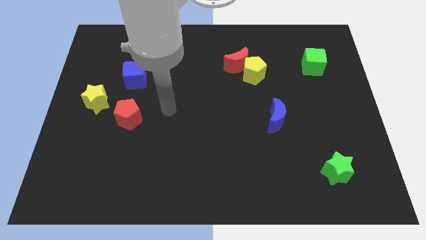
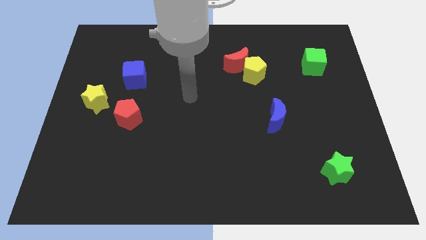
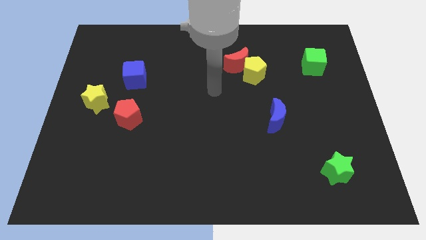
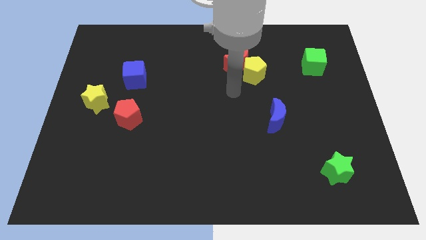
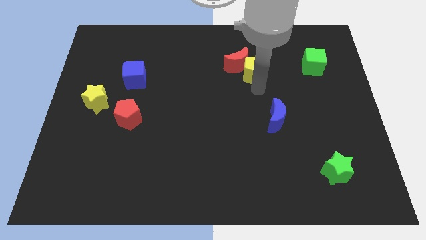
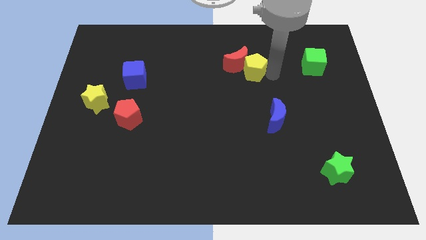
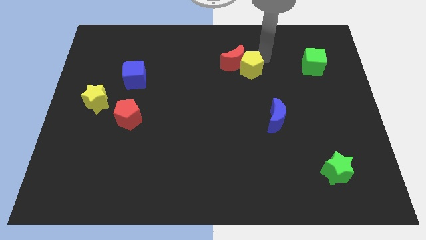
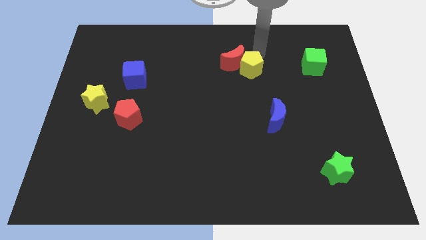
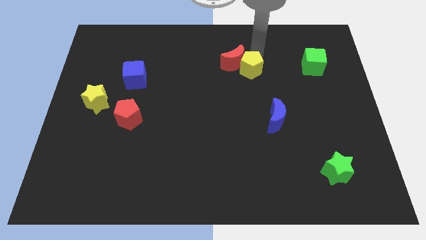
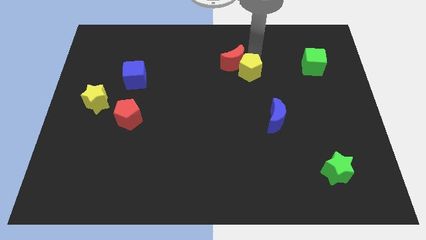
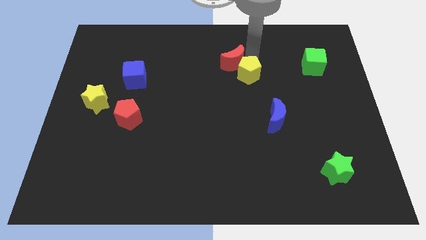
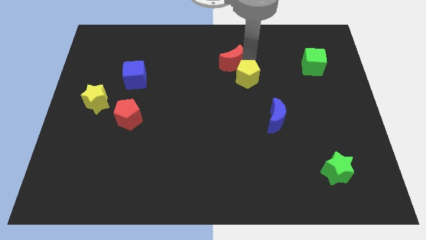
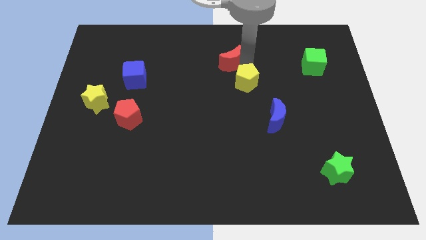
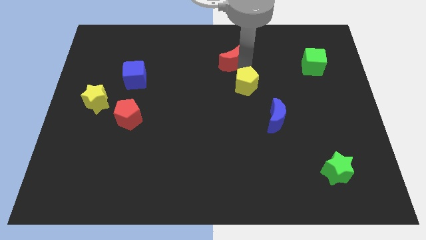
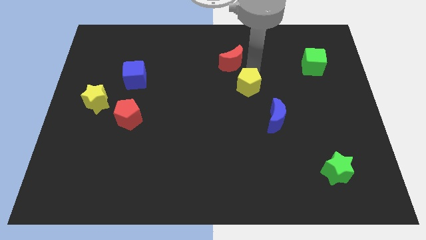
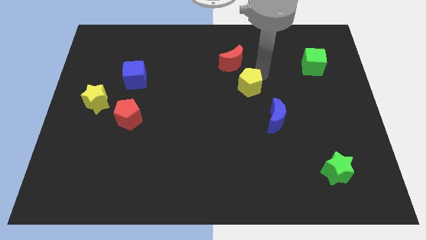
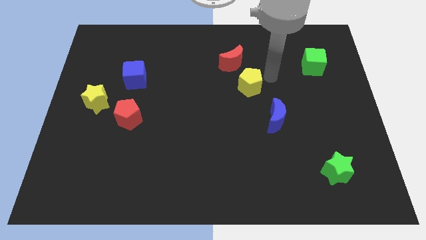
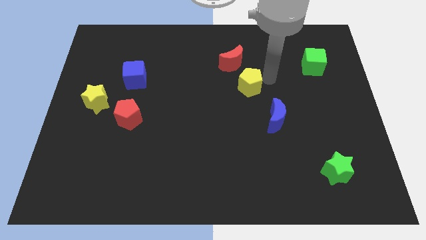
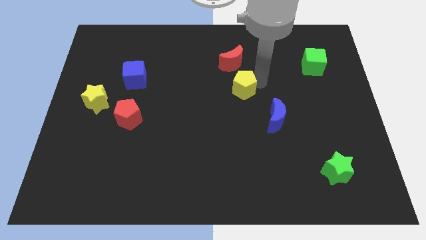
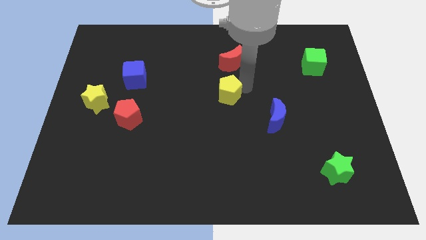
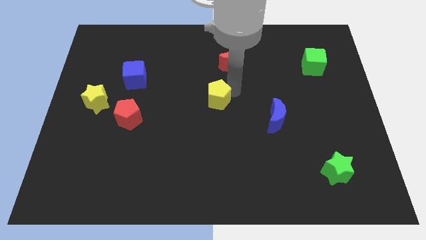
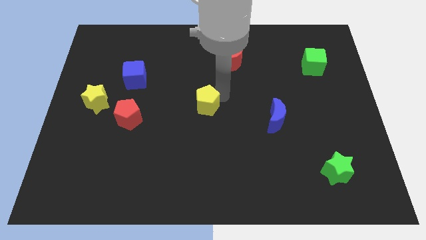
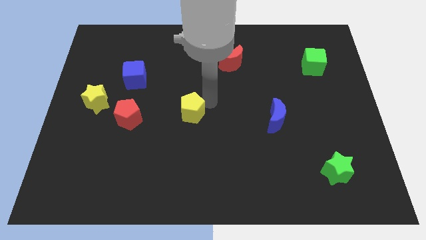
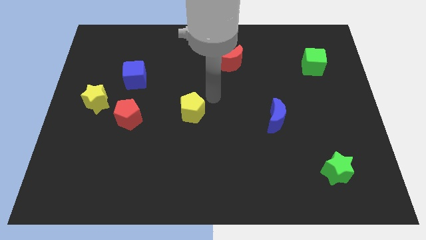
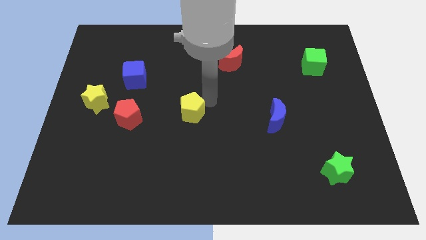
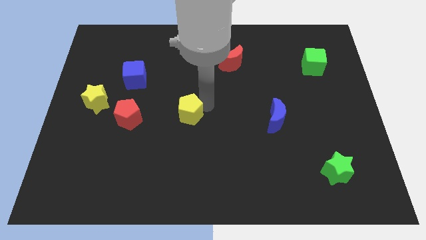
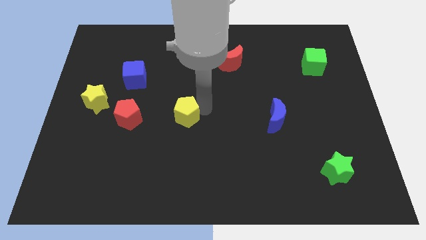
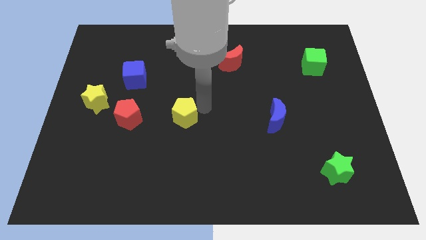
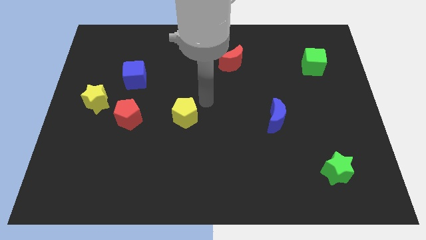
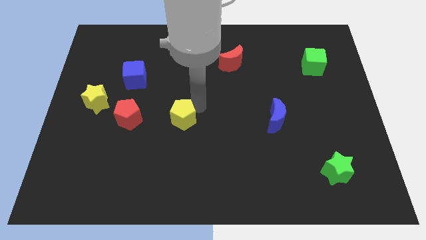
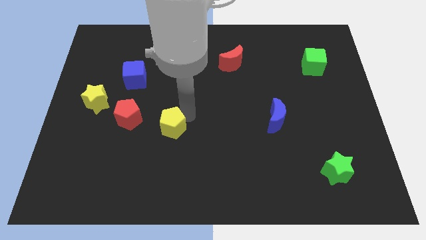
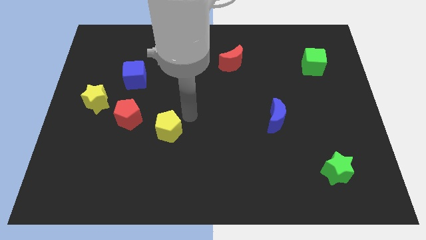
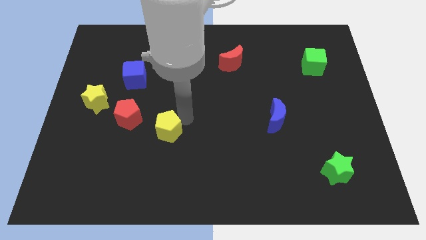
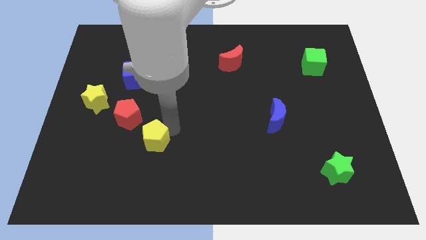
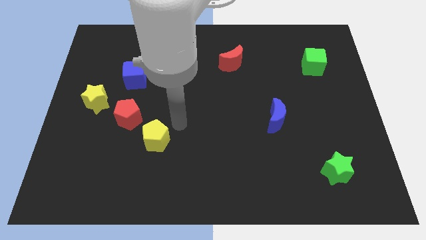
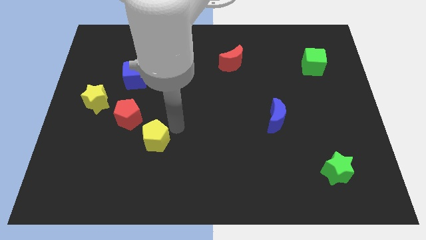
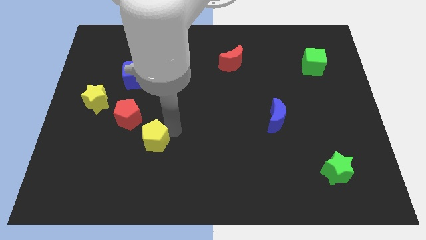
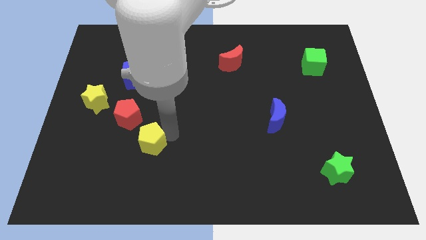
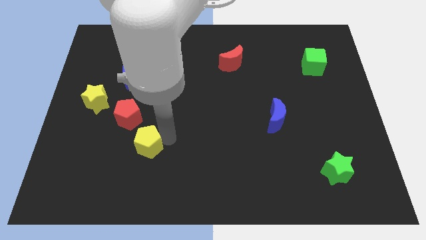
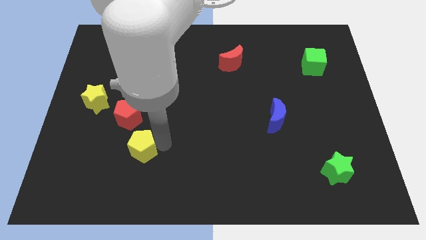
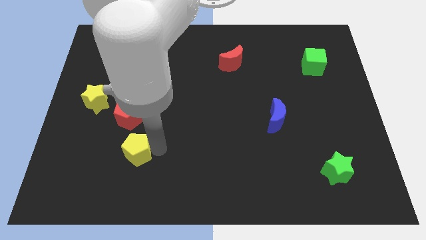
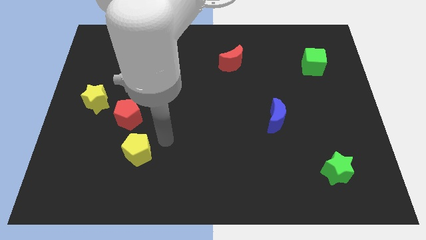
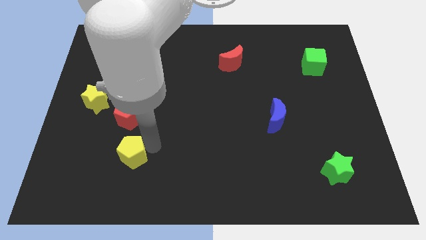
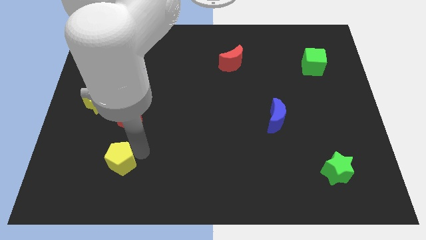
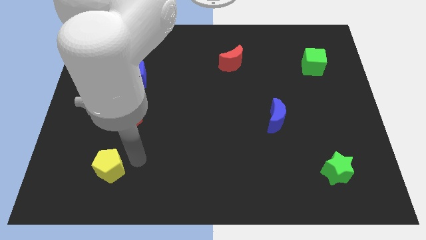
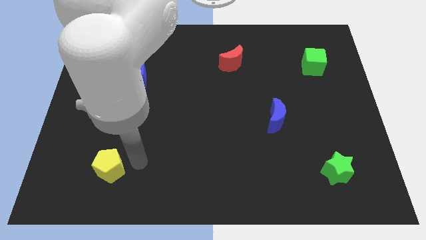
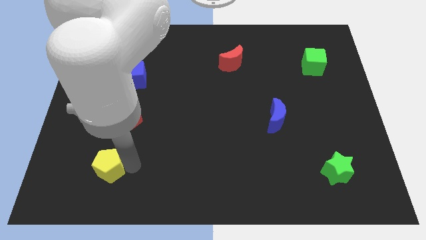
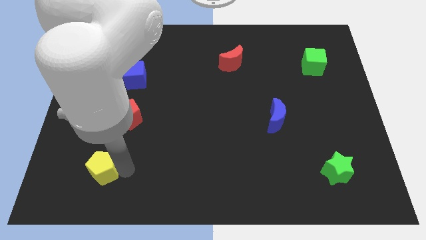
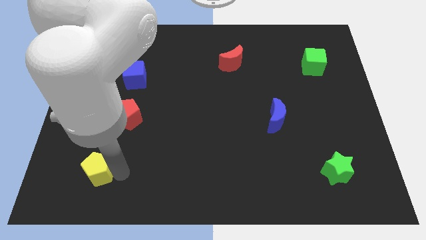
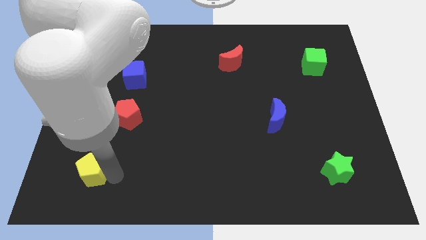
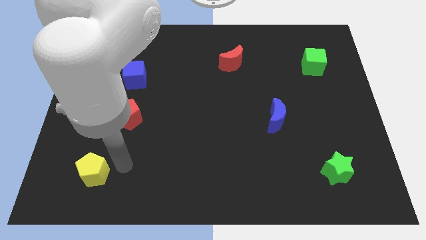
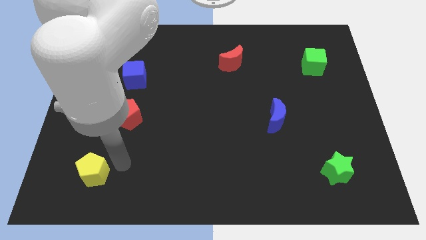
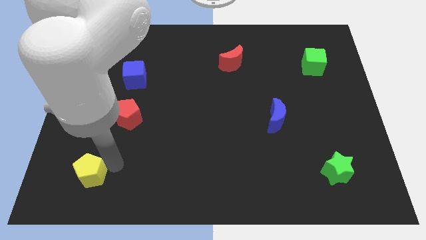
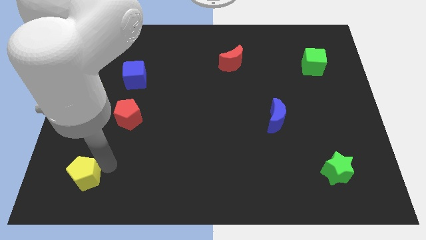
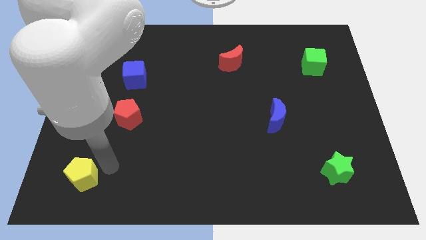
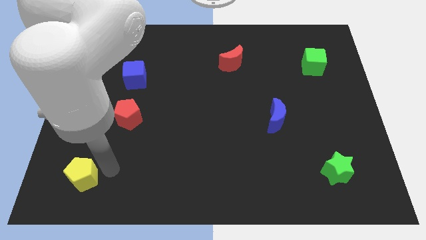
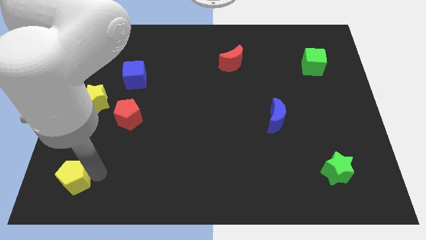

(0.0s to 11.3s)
put the yellow pentagon to the lower left corner

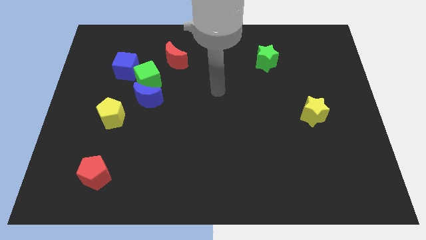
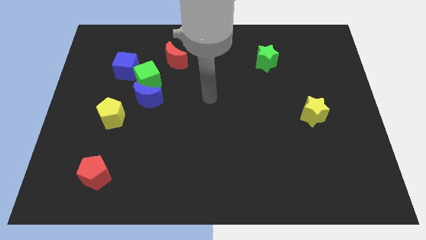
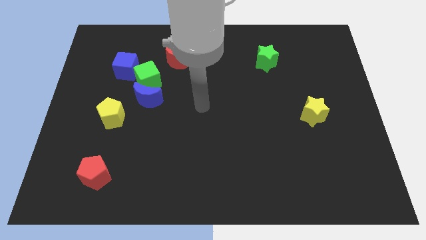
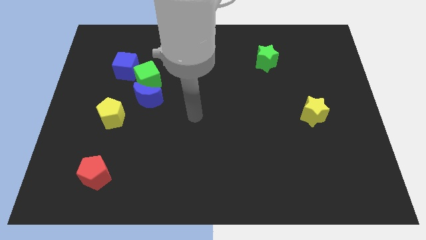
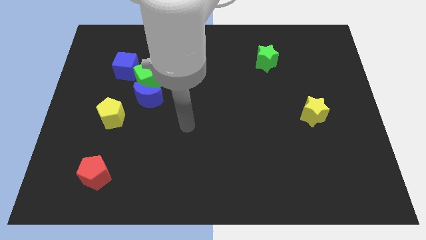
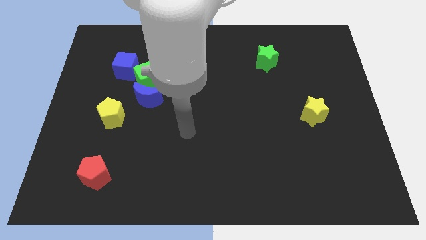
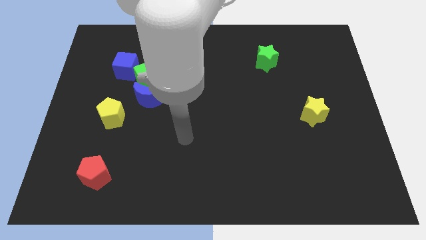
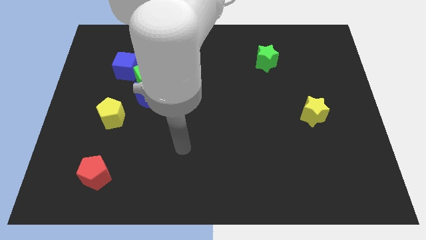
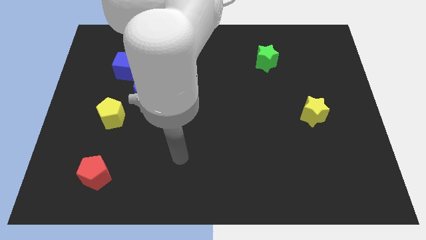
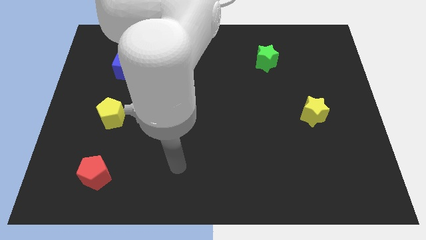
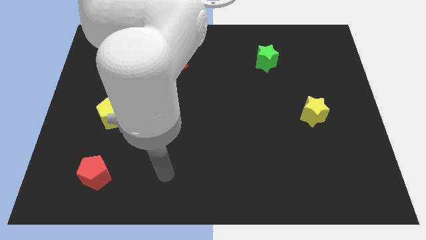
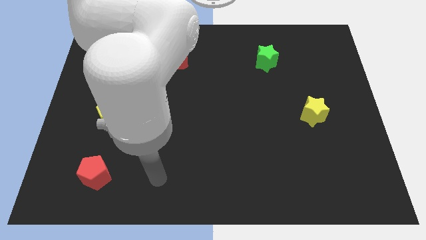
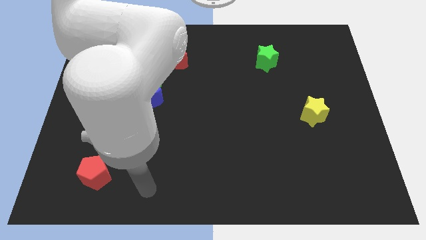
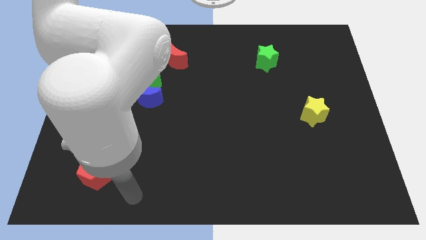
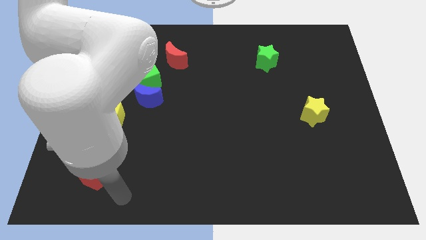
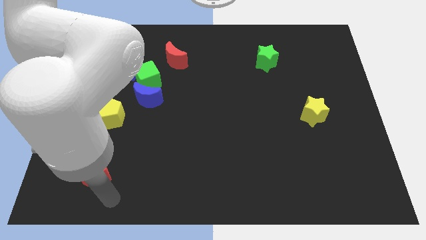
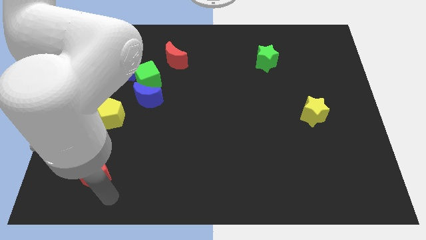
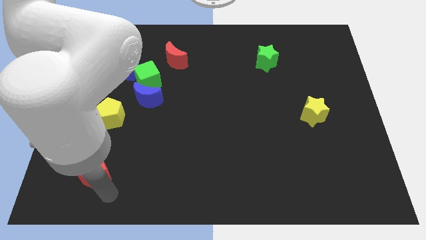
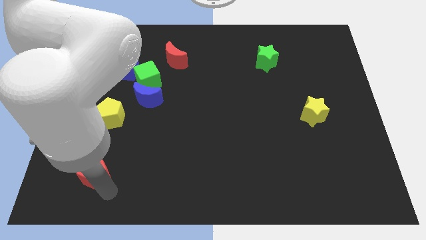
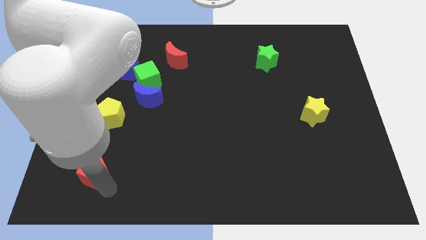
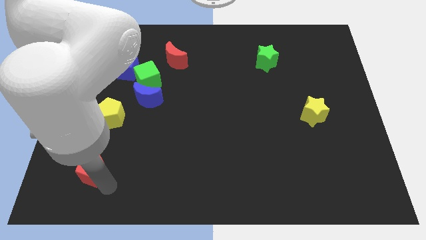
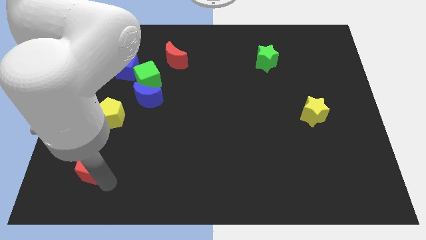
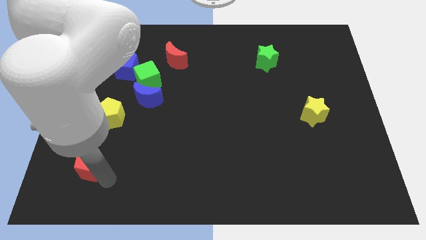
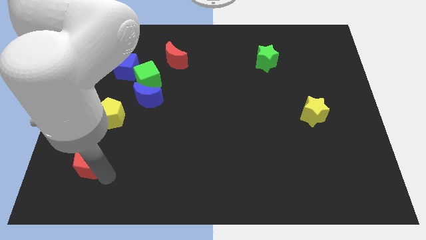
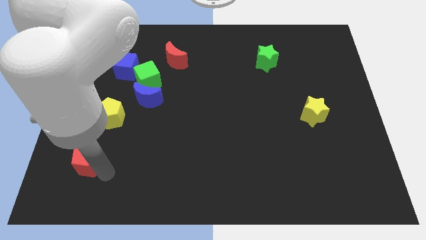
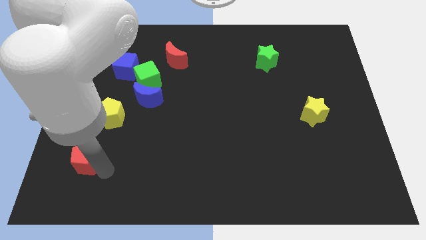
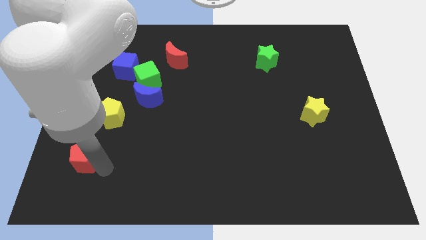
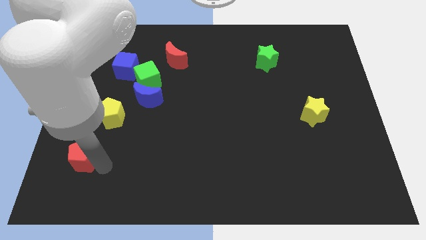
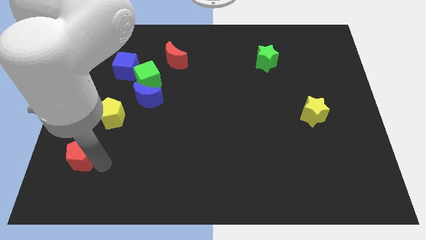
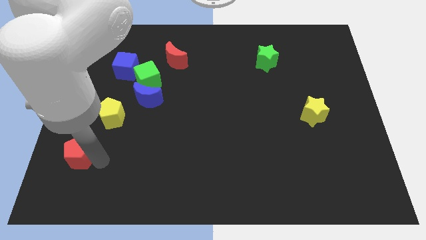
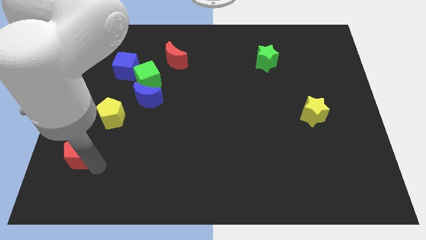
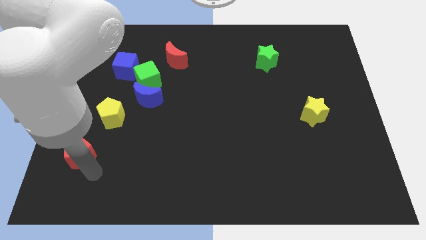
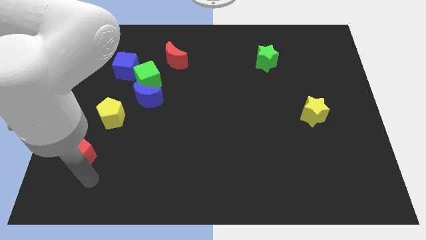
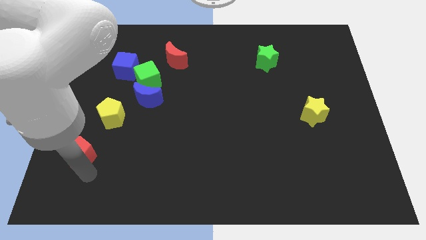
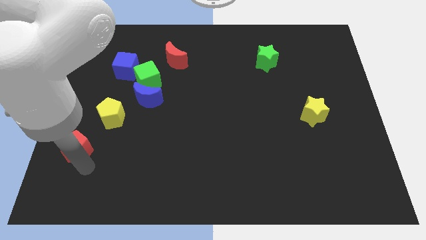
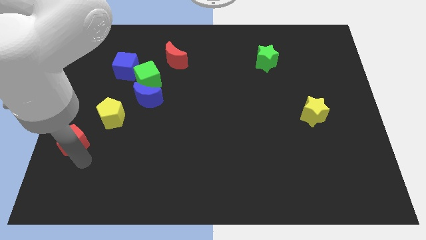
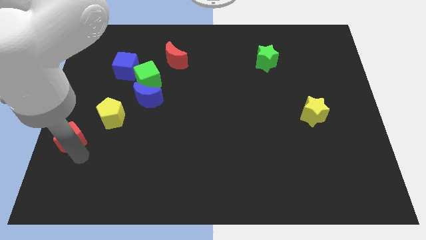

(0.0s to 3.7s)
slide the red pentagon to the left side of the board
